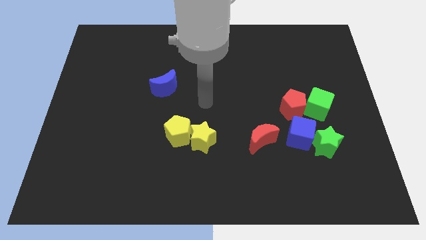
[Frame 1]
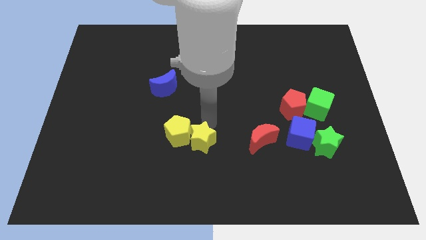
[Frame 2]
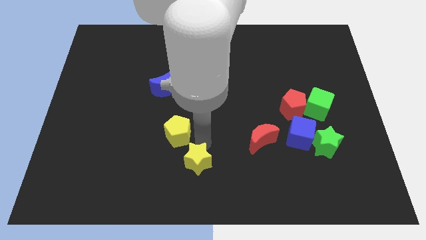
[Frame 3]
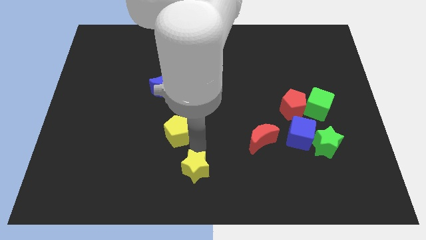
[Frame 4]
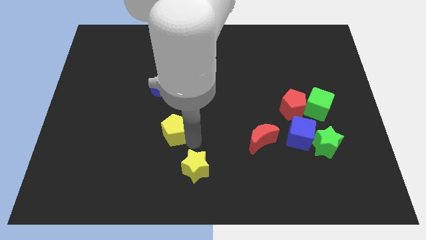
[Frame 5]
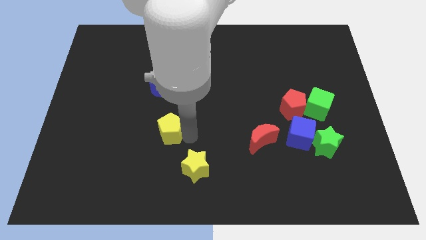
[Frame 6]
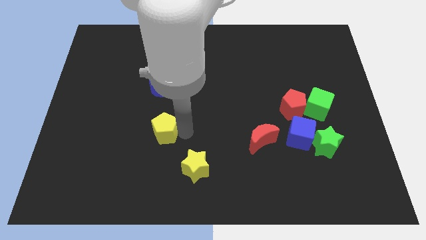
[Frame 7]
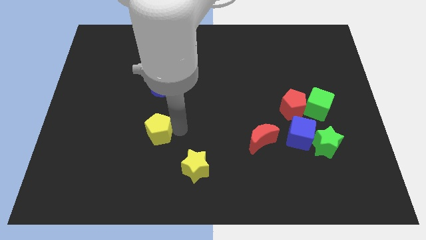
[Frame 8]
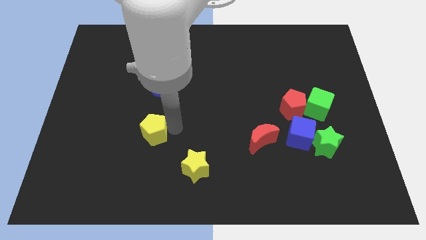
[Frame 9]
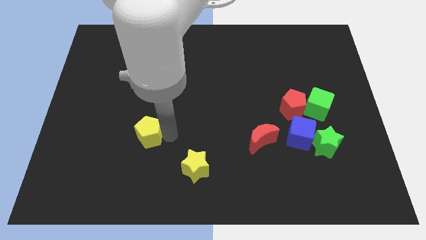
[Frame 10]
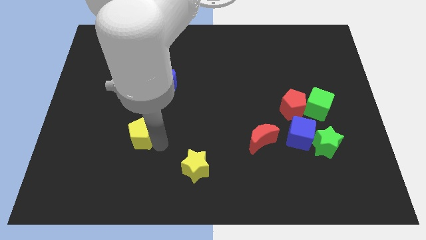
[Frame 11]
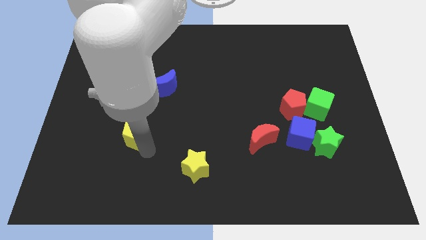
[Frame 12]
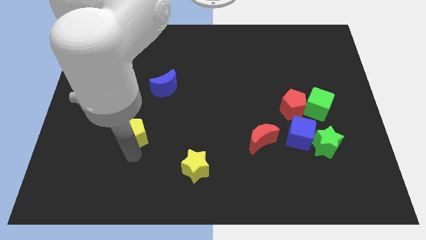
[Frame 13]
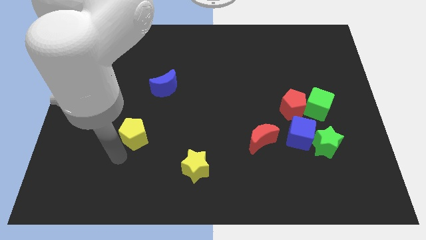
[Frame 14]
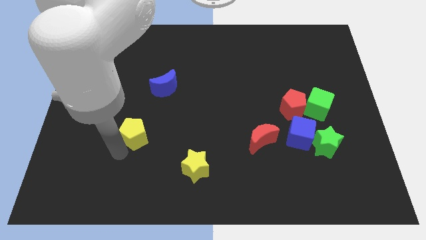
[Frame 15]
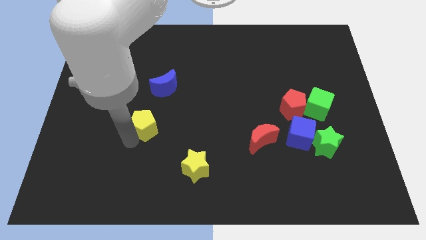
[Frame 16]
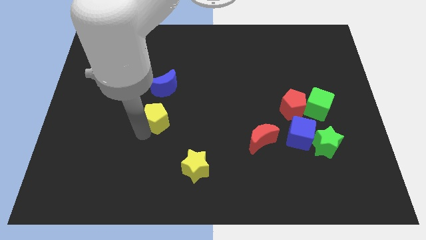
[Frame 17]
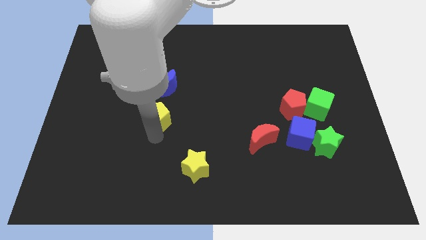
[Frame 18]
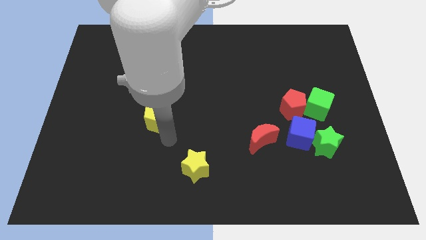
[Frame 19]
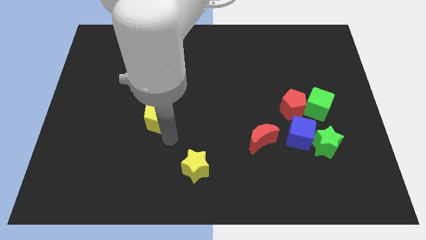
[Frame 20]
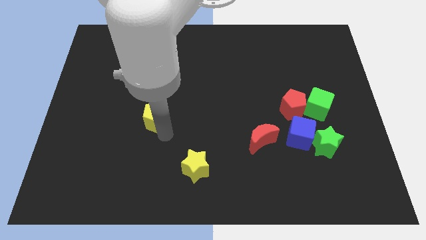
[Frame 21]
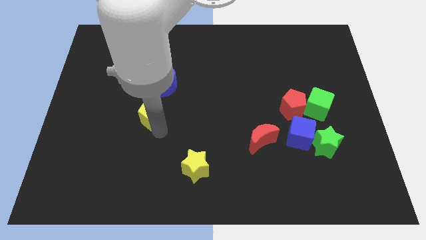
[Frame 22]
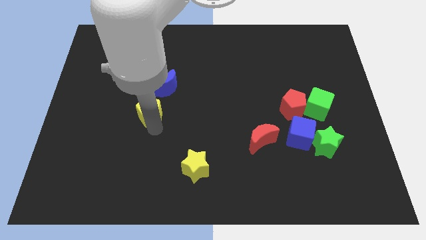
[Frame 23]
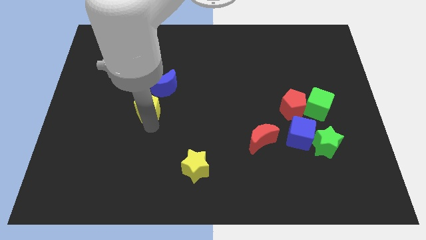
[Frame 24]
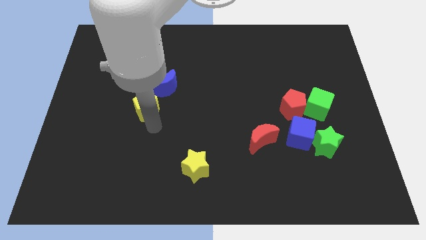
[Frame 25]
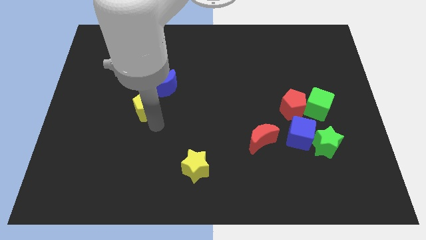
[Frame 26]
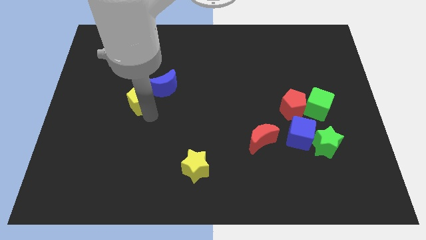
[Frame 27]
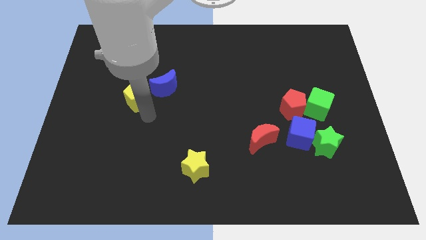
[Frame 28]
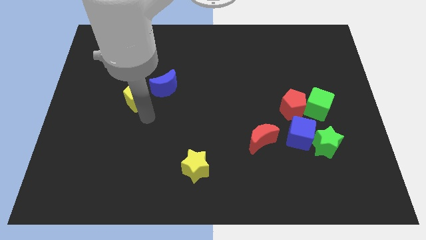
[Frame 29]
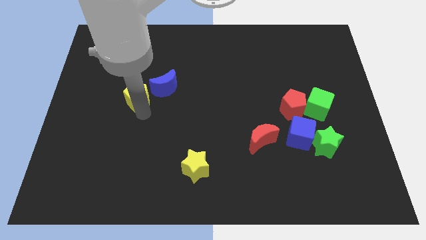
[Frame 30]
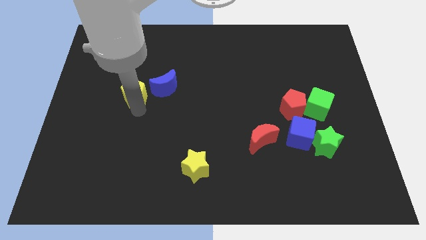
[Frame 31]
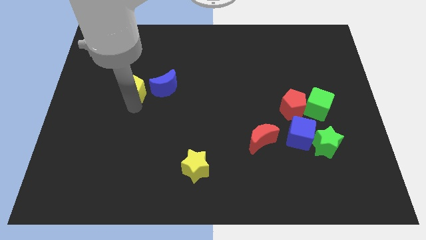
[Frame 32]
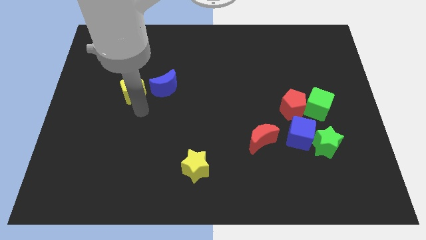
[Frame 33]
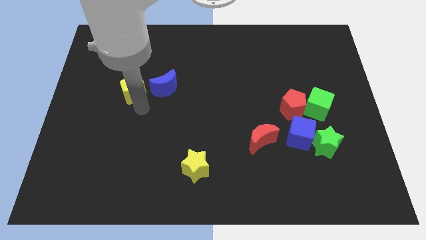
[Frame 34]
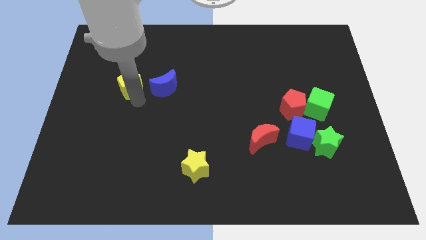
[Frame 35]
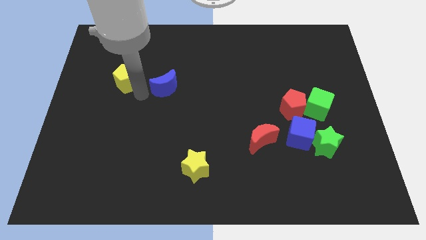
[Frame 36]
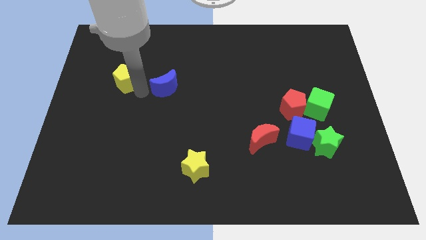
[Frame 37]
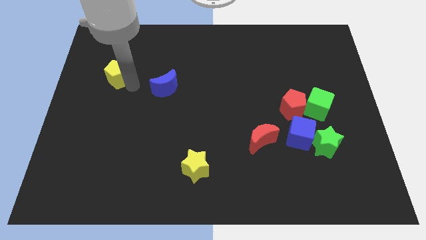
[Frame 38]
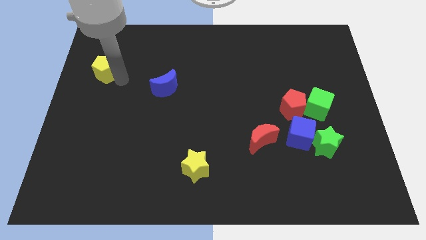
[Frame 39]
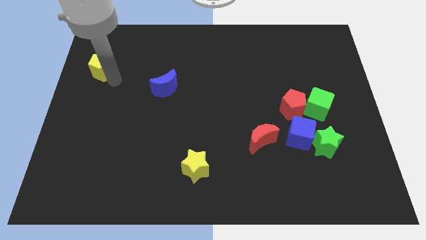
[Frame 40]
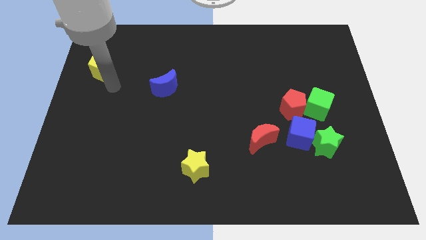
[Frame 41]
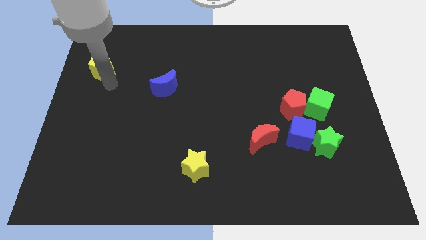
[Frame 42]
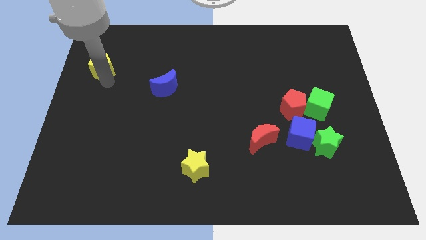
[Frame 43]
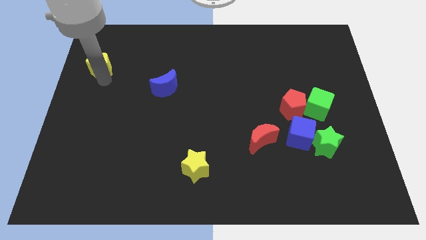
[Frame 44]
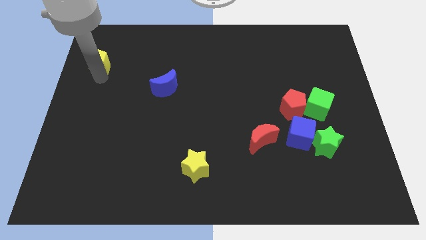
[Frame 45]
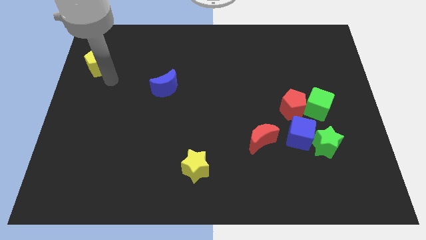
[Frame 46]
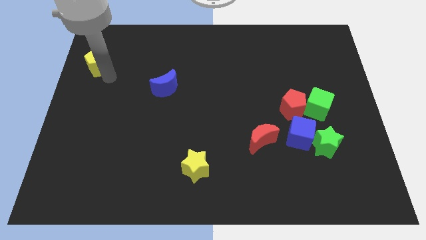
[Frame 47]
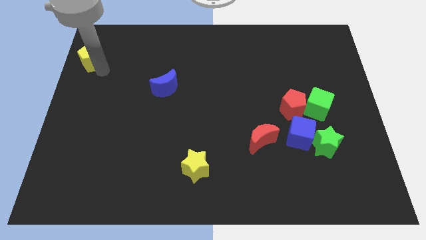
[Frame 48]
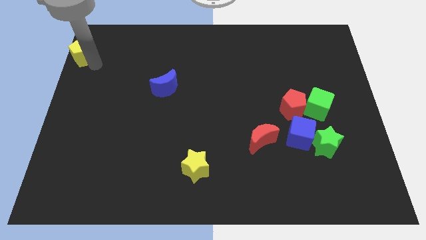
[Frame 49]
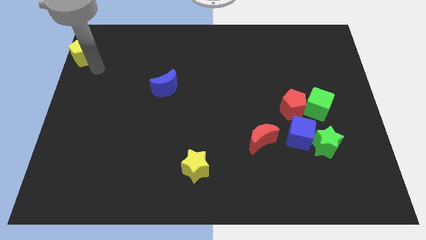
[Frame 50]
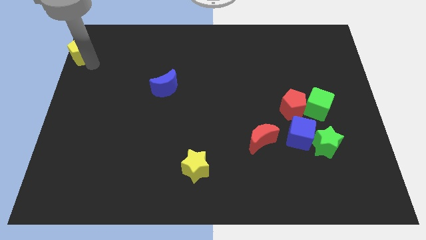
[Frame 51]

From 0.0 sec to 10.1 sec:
put the yellow pentagon to the top left

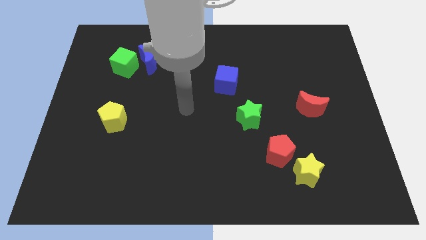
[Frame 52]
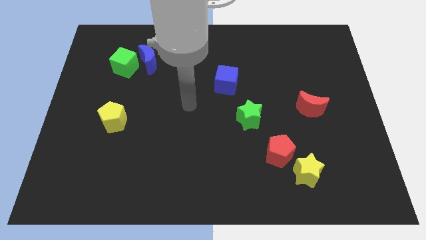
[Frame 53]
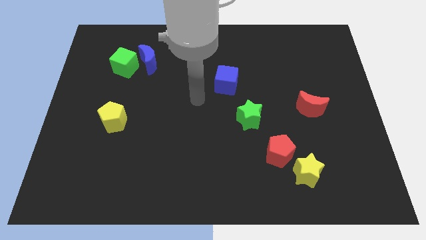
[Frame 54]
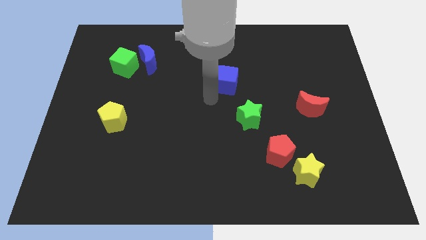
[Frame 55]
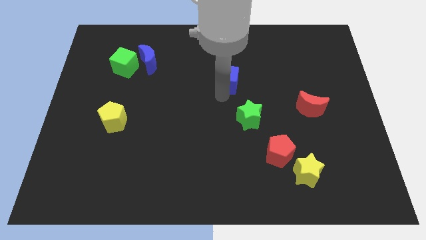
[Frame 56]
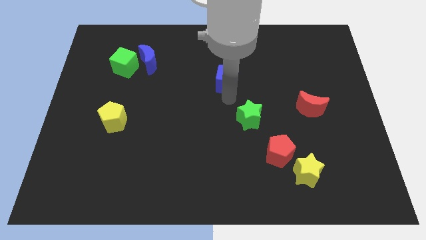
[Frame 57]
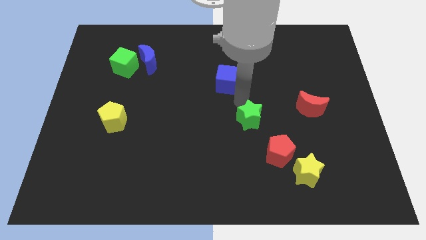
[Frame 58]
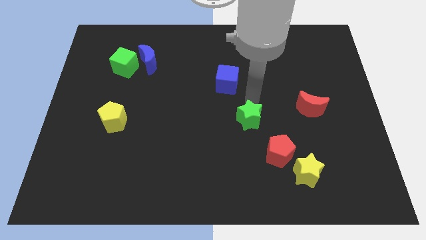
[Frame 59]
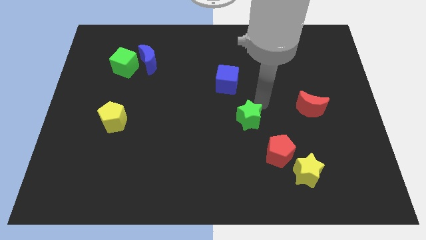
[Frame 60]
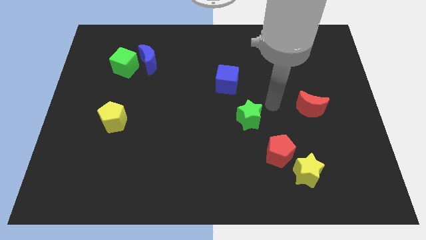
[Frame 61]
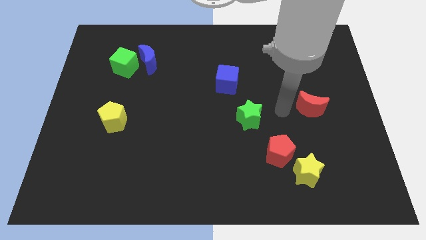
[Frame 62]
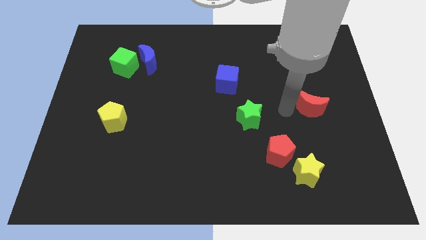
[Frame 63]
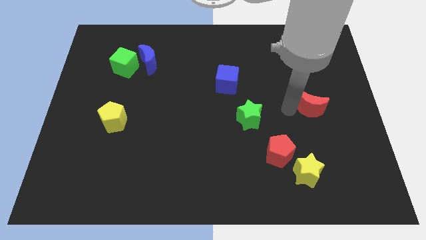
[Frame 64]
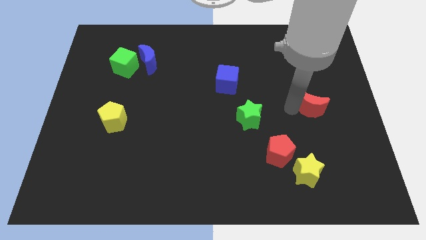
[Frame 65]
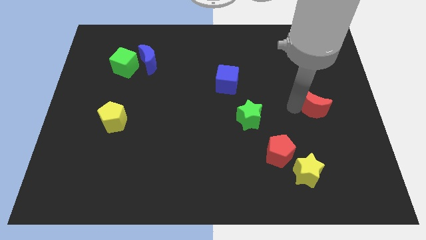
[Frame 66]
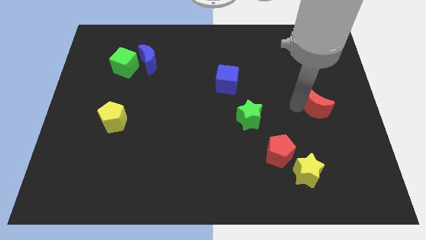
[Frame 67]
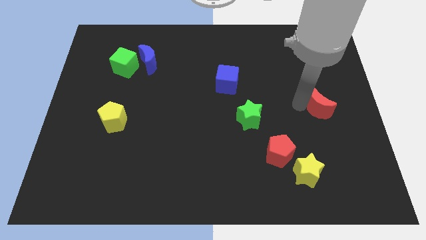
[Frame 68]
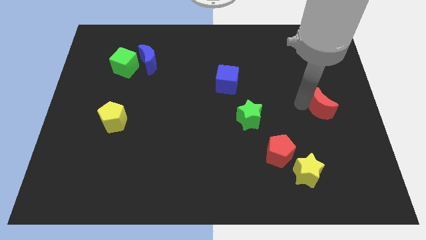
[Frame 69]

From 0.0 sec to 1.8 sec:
slide the red moon to the right side of the board

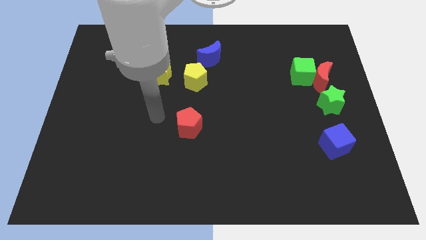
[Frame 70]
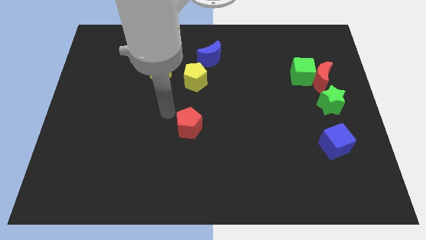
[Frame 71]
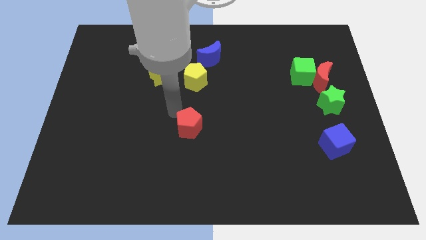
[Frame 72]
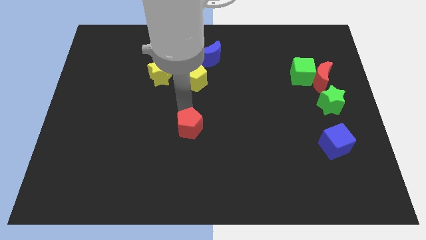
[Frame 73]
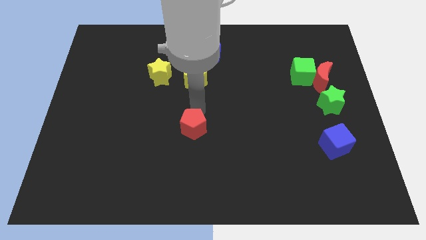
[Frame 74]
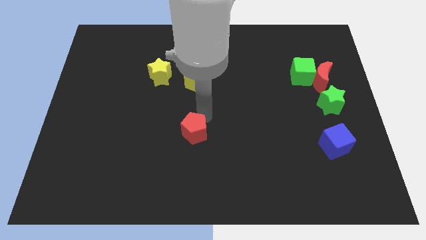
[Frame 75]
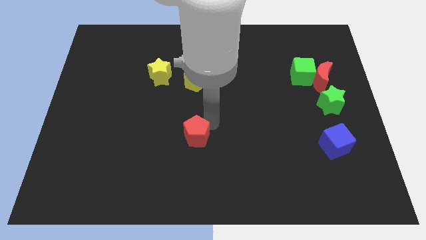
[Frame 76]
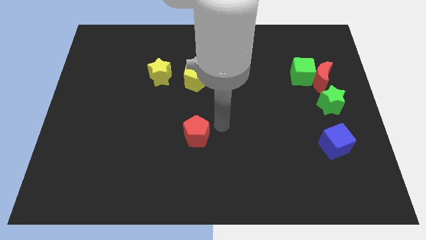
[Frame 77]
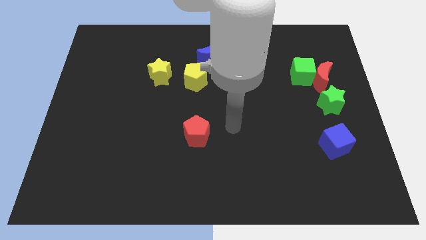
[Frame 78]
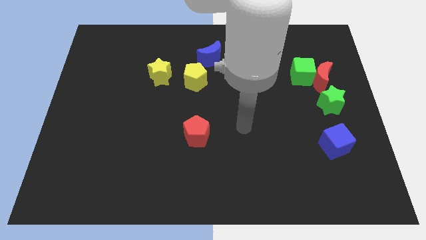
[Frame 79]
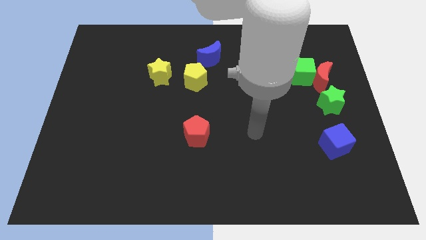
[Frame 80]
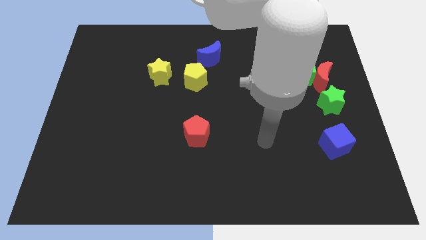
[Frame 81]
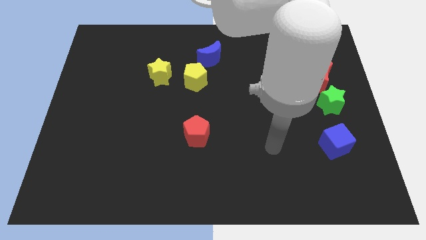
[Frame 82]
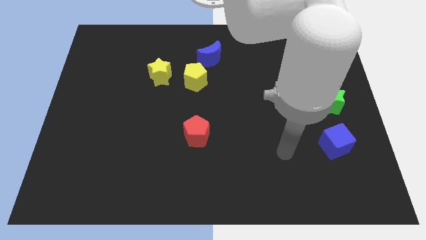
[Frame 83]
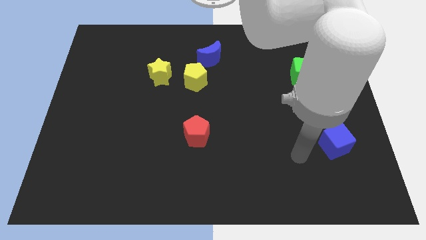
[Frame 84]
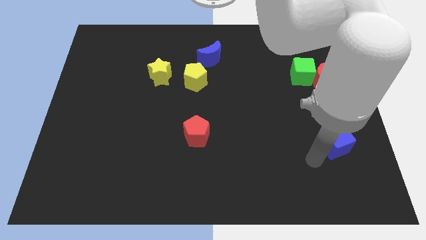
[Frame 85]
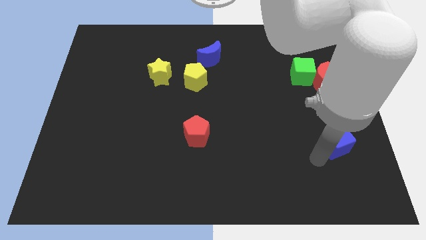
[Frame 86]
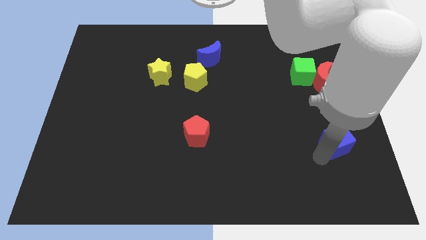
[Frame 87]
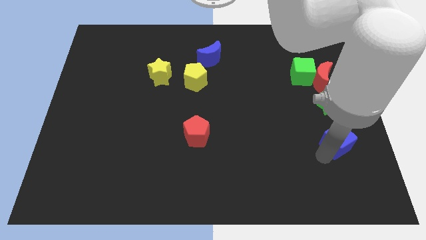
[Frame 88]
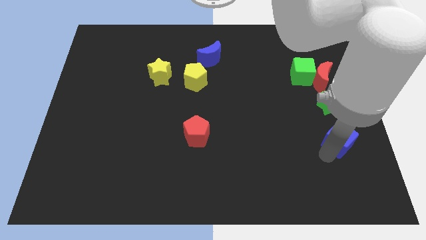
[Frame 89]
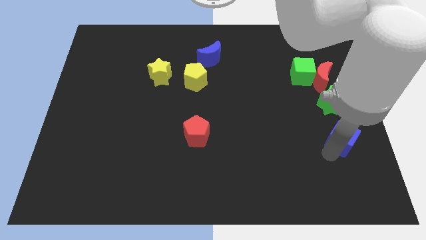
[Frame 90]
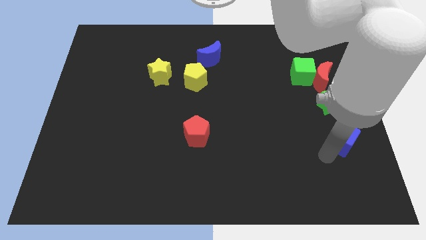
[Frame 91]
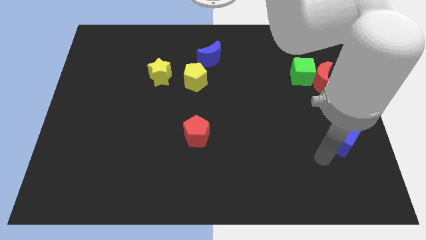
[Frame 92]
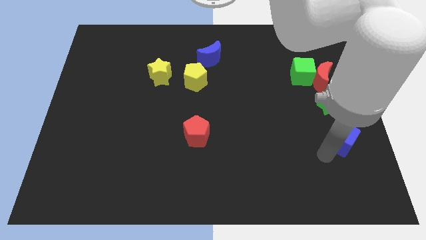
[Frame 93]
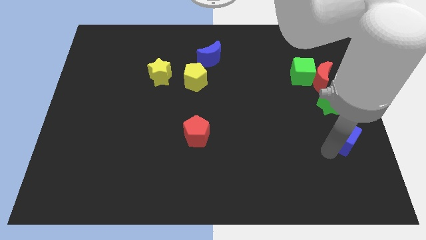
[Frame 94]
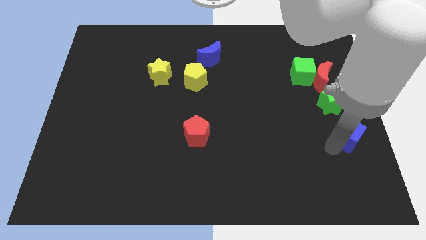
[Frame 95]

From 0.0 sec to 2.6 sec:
push the blue cube to the center right
